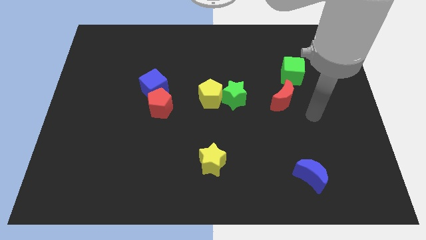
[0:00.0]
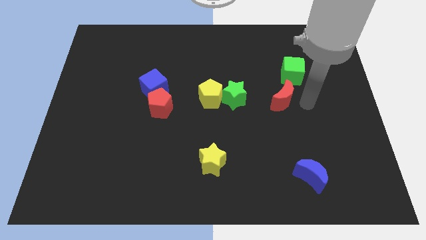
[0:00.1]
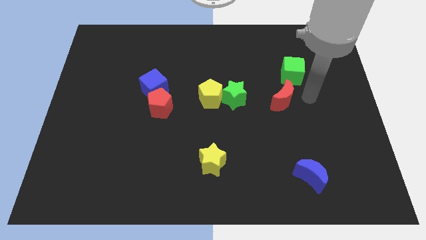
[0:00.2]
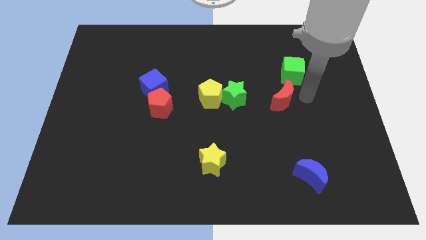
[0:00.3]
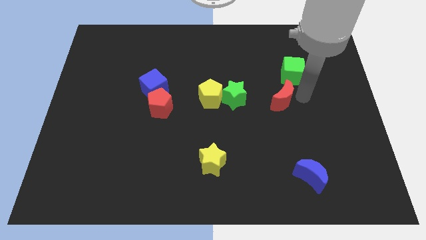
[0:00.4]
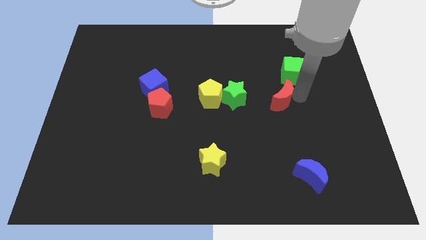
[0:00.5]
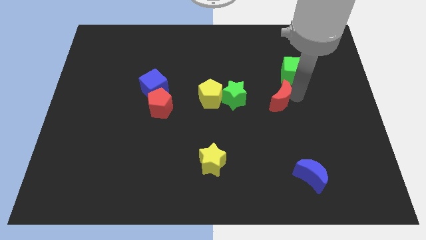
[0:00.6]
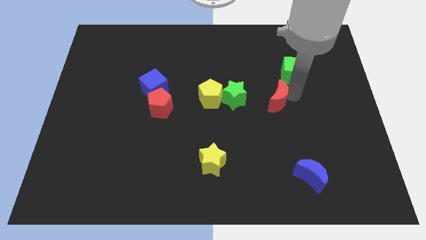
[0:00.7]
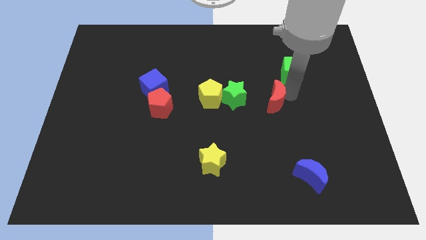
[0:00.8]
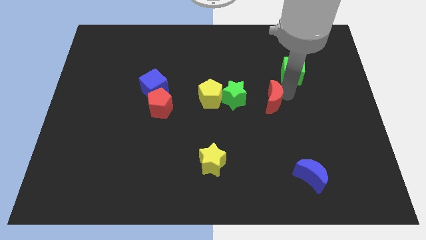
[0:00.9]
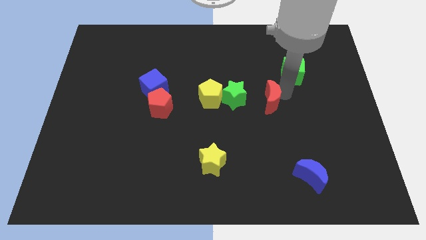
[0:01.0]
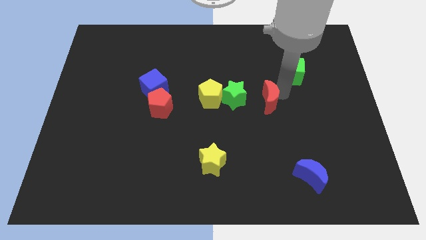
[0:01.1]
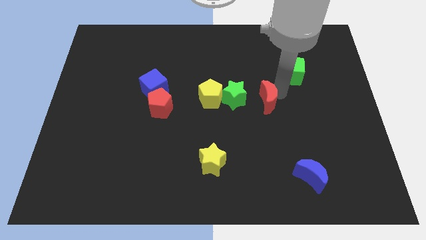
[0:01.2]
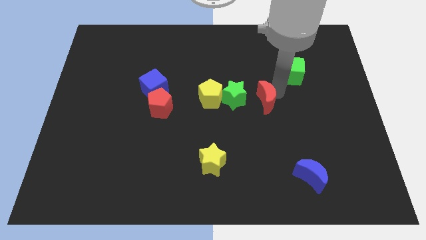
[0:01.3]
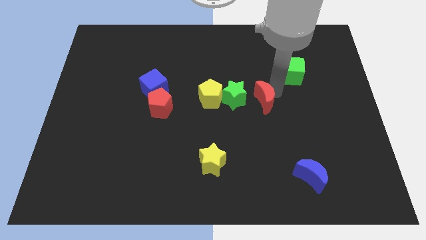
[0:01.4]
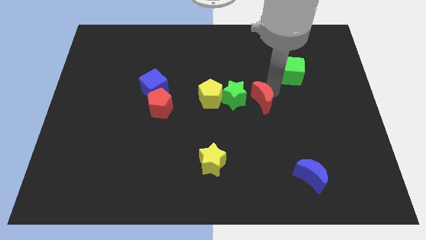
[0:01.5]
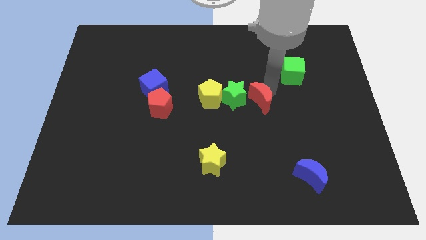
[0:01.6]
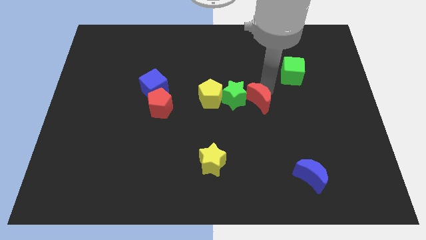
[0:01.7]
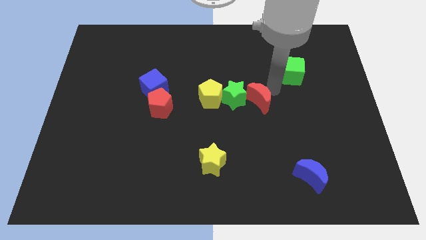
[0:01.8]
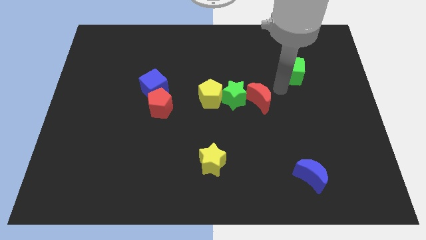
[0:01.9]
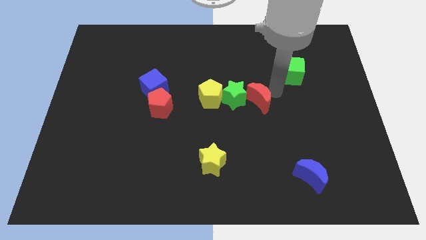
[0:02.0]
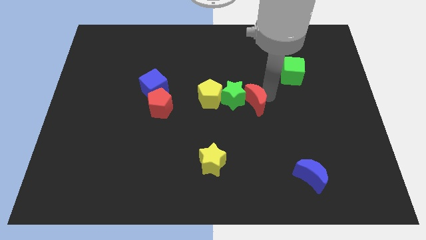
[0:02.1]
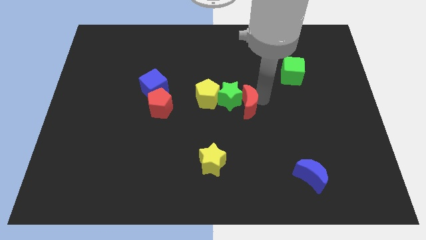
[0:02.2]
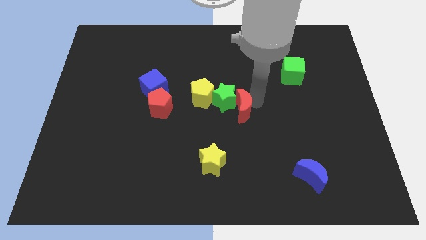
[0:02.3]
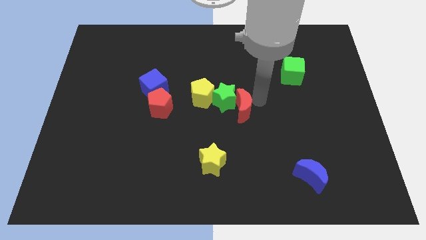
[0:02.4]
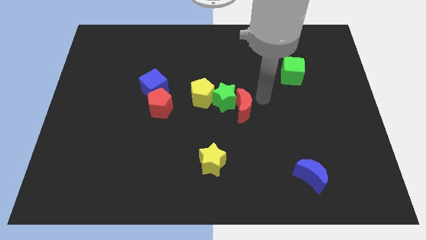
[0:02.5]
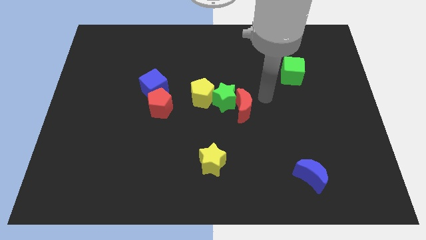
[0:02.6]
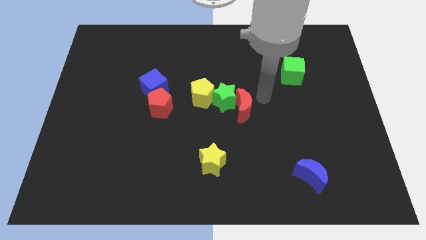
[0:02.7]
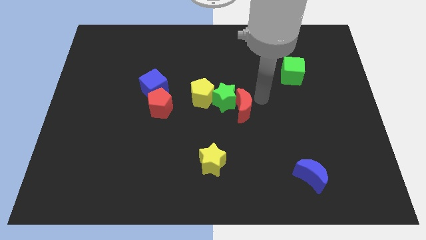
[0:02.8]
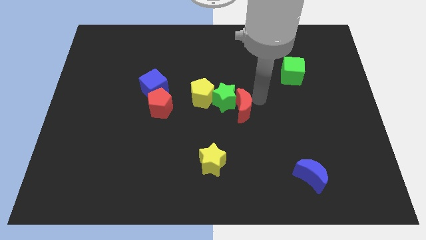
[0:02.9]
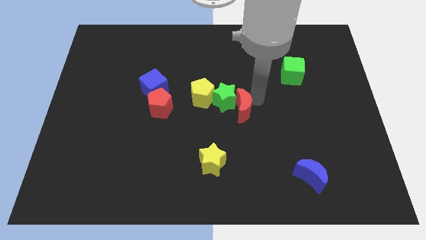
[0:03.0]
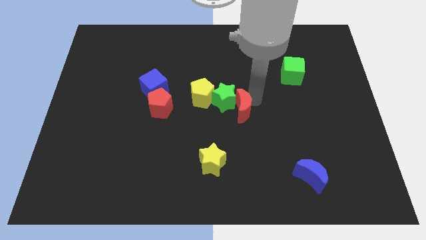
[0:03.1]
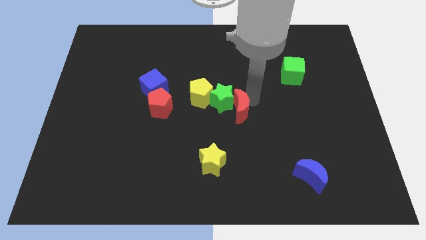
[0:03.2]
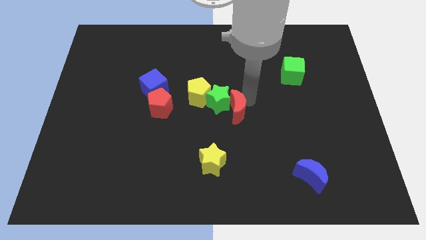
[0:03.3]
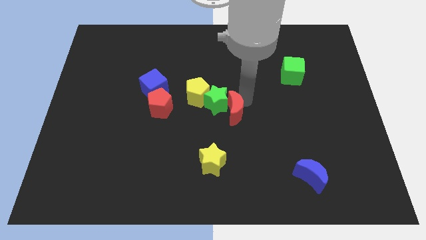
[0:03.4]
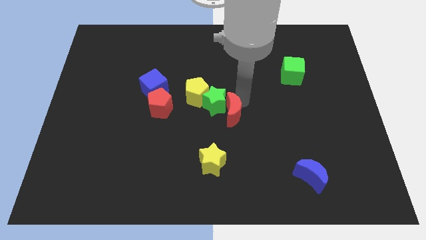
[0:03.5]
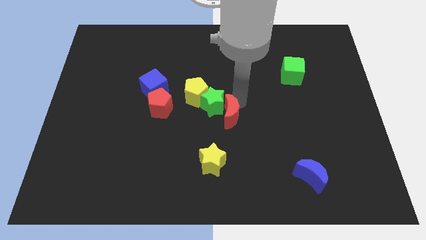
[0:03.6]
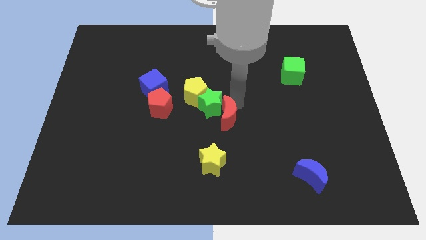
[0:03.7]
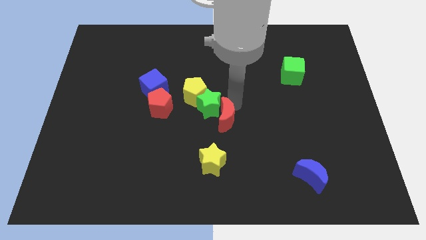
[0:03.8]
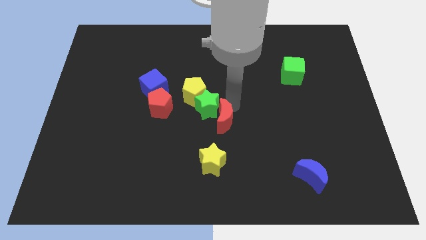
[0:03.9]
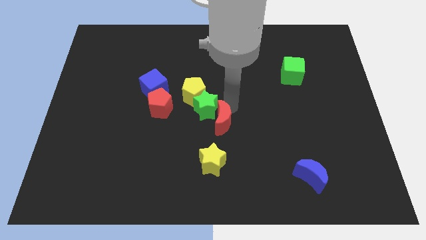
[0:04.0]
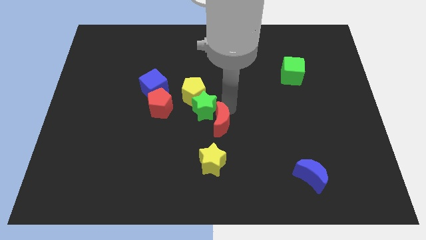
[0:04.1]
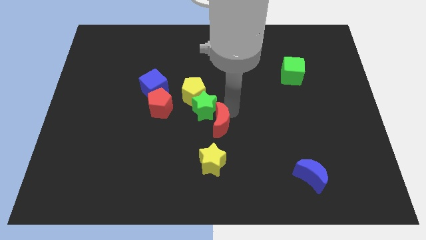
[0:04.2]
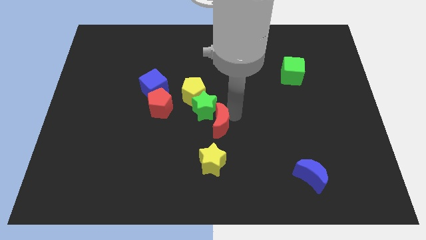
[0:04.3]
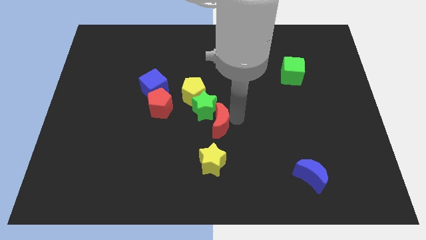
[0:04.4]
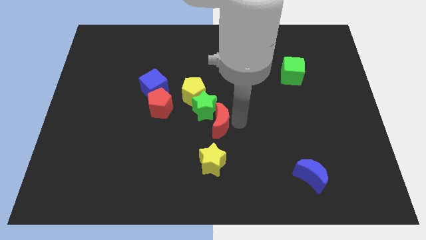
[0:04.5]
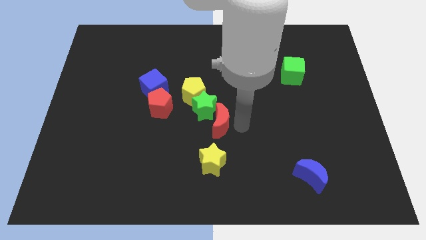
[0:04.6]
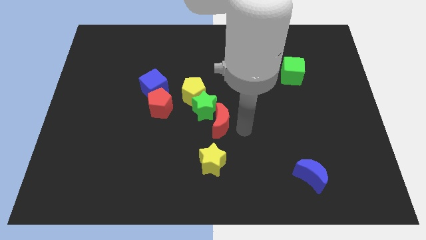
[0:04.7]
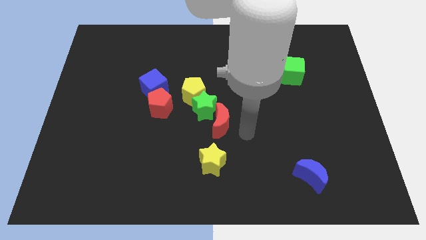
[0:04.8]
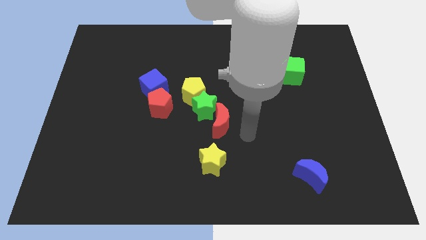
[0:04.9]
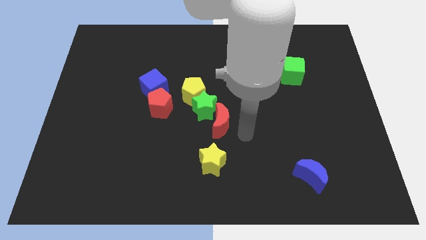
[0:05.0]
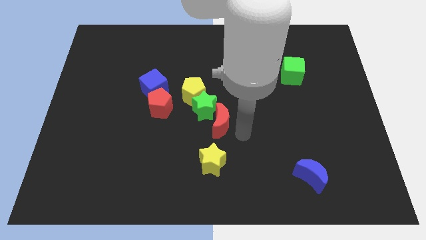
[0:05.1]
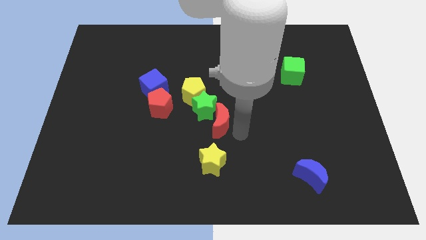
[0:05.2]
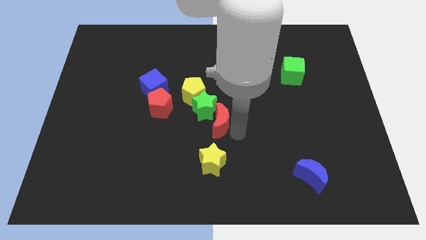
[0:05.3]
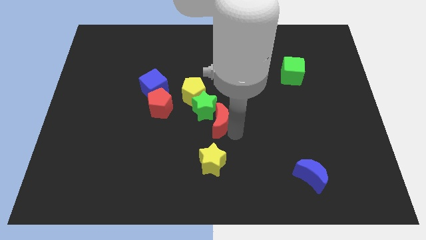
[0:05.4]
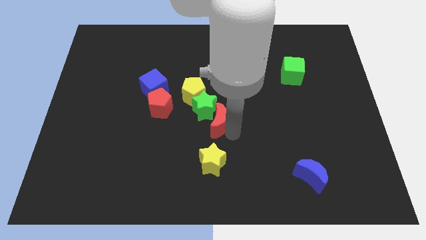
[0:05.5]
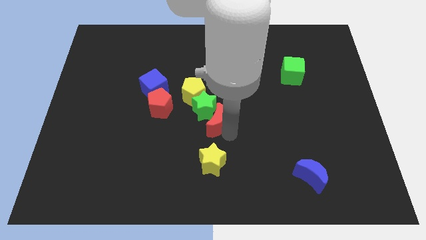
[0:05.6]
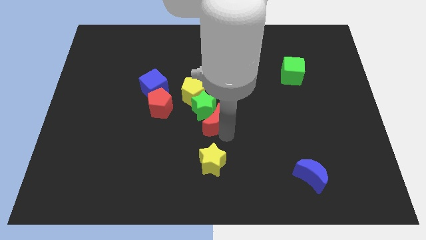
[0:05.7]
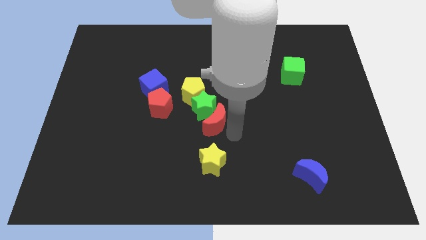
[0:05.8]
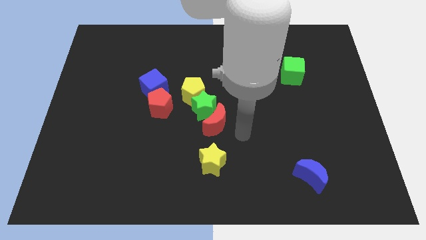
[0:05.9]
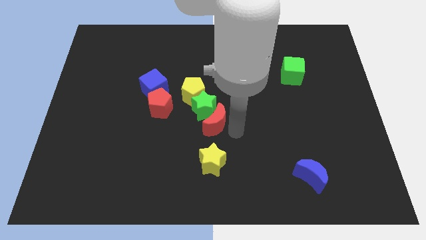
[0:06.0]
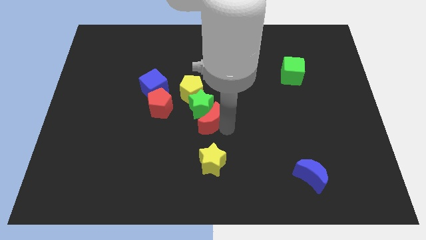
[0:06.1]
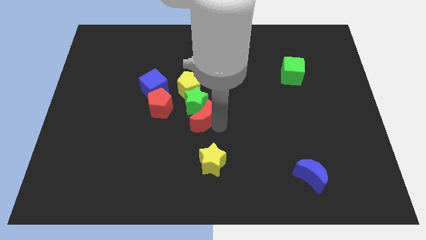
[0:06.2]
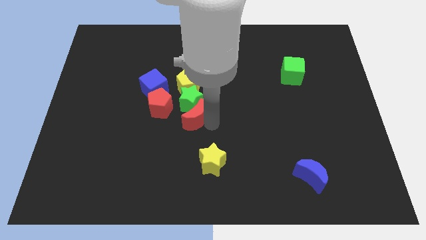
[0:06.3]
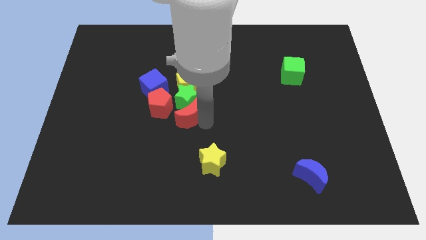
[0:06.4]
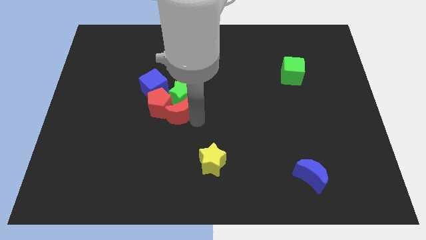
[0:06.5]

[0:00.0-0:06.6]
put the red moon next to the red pentagon
